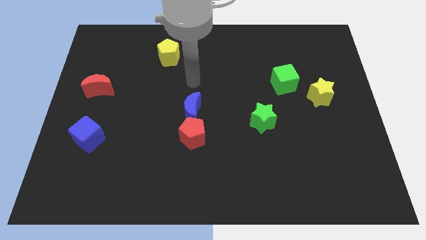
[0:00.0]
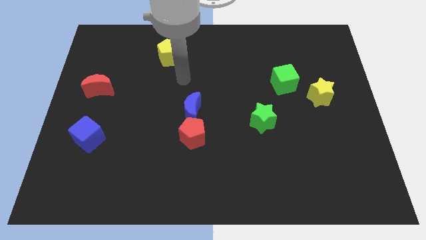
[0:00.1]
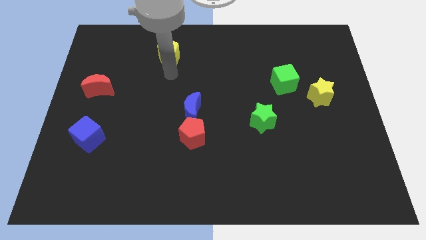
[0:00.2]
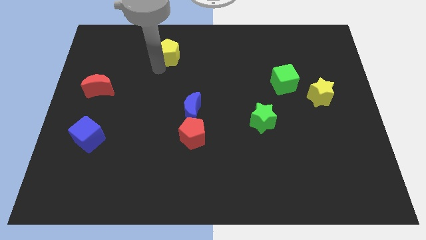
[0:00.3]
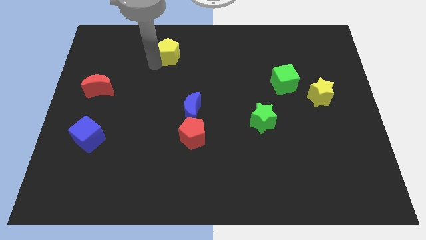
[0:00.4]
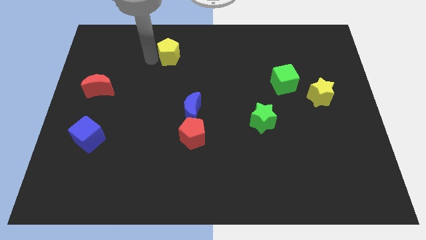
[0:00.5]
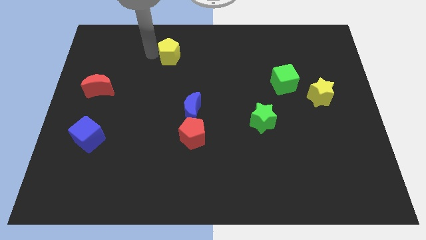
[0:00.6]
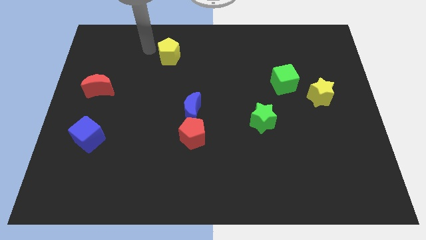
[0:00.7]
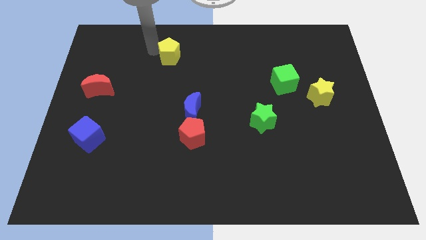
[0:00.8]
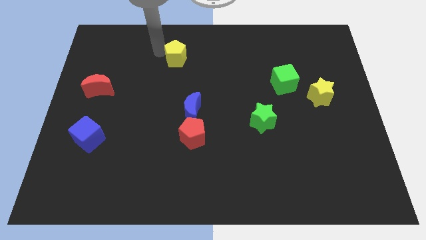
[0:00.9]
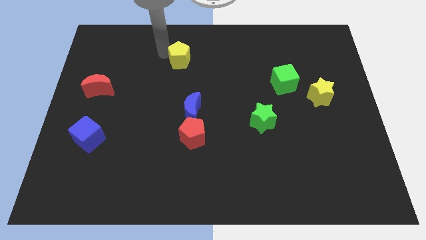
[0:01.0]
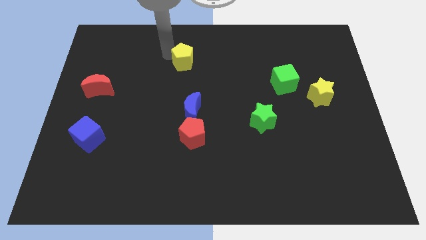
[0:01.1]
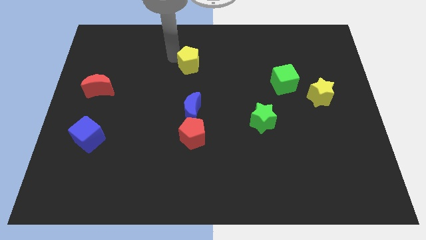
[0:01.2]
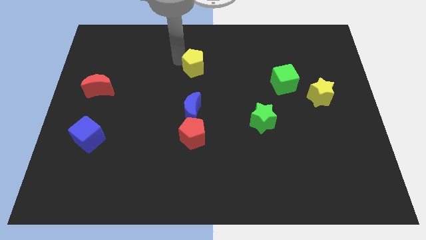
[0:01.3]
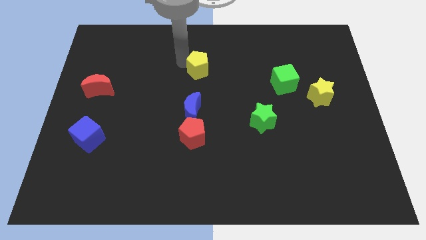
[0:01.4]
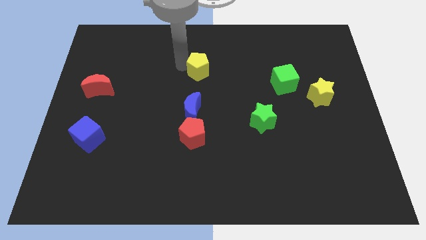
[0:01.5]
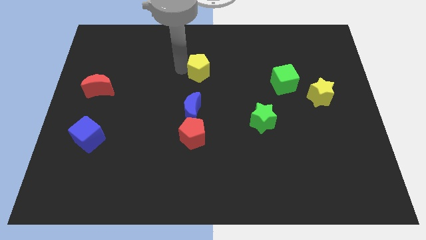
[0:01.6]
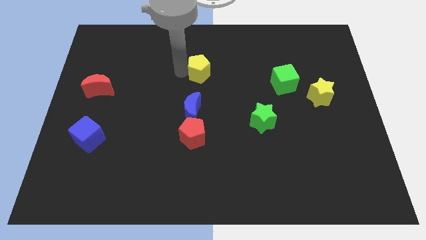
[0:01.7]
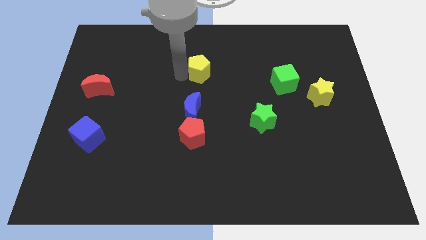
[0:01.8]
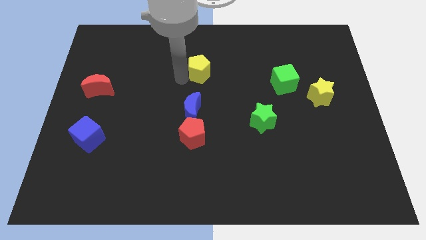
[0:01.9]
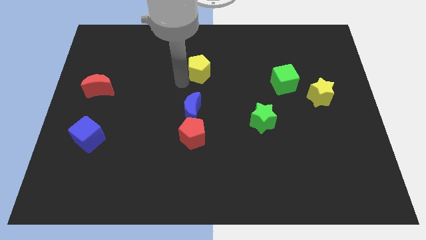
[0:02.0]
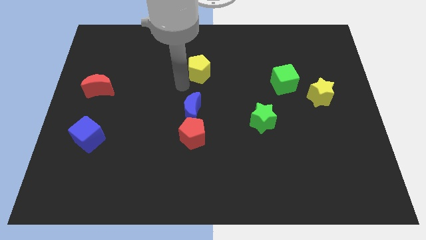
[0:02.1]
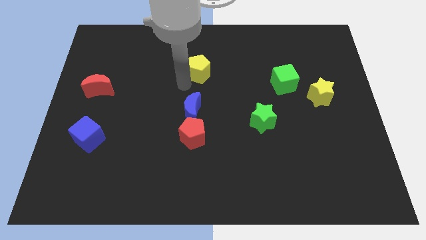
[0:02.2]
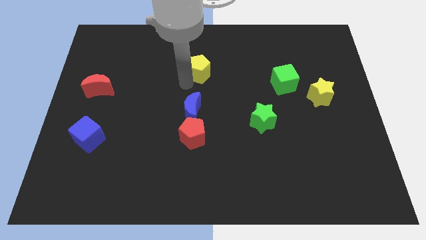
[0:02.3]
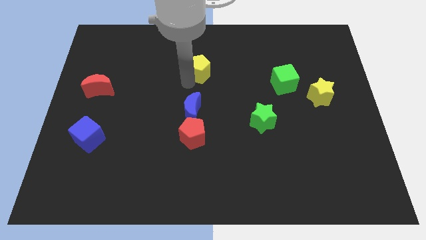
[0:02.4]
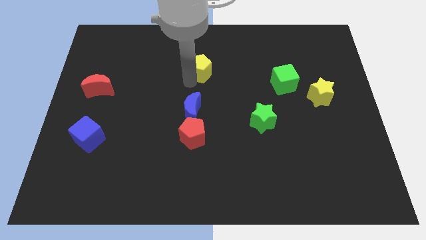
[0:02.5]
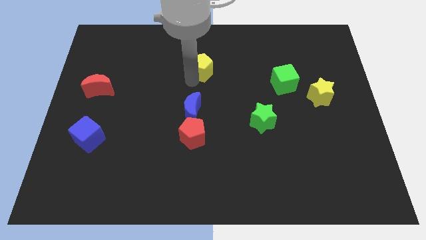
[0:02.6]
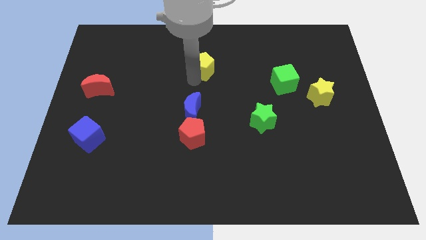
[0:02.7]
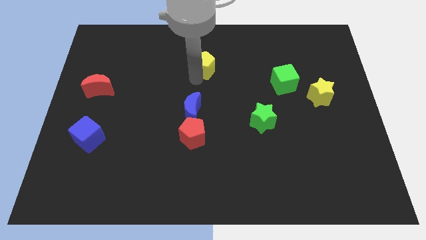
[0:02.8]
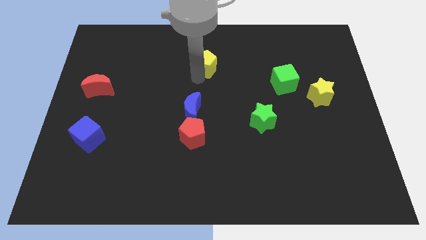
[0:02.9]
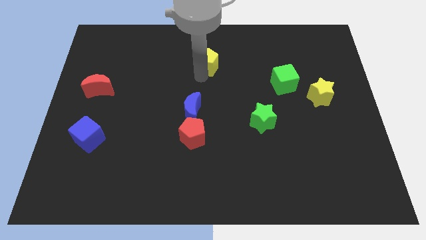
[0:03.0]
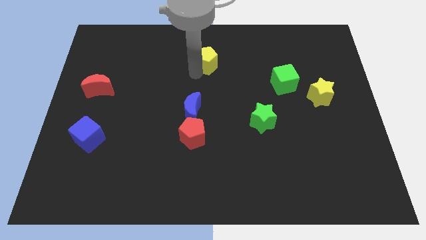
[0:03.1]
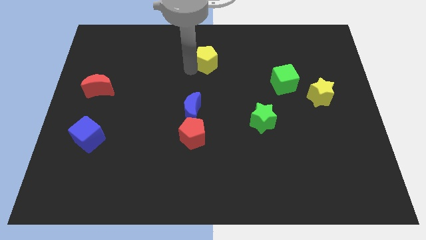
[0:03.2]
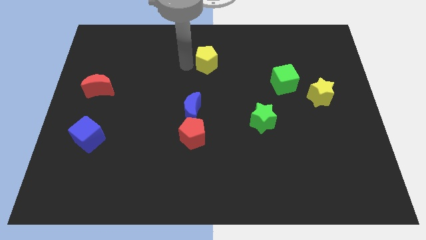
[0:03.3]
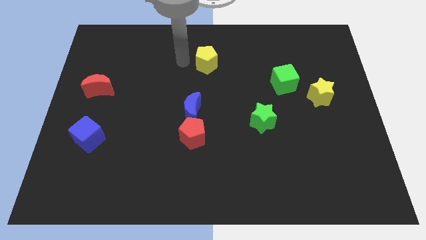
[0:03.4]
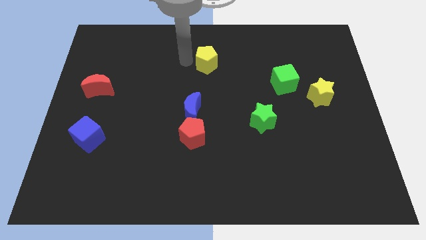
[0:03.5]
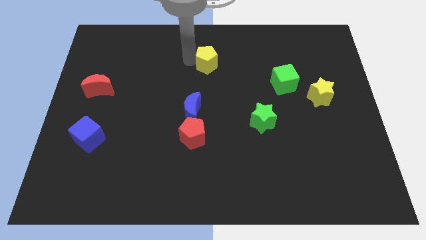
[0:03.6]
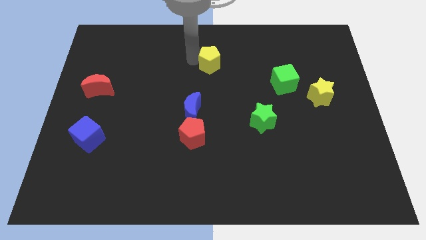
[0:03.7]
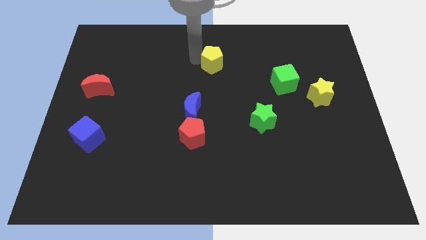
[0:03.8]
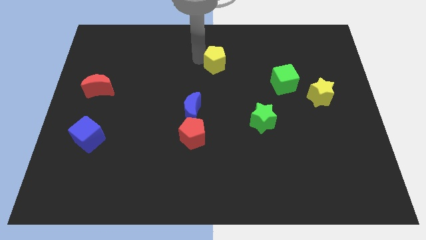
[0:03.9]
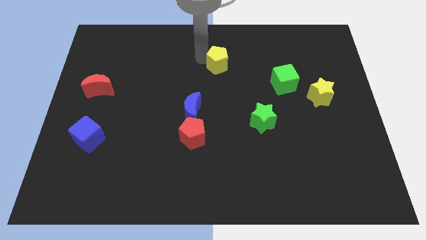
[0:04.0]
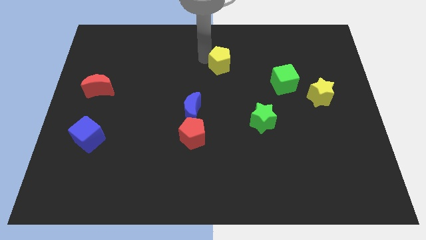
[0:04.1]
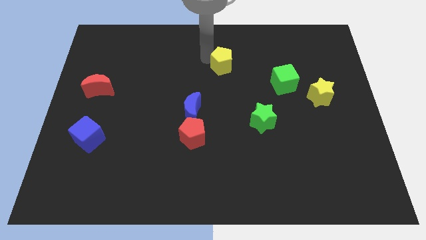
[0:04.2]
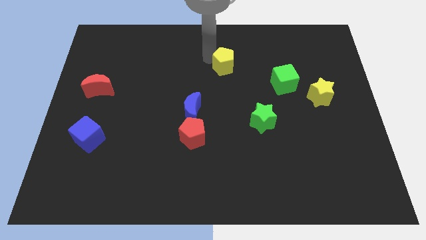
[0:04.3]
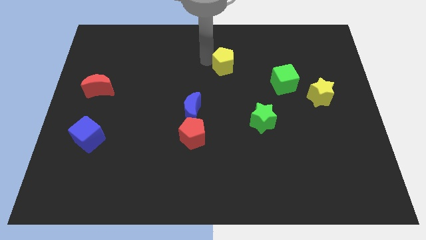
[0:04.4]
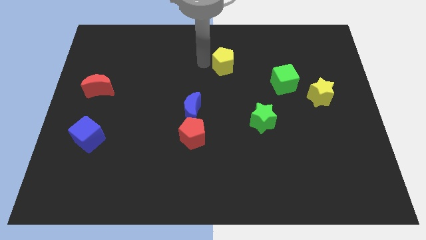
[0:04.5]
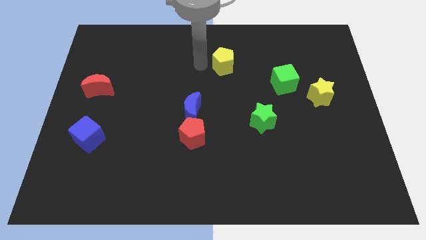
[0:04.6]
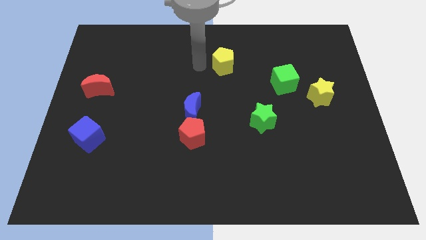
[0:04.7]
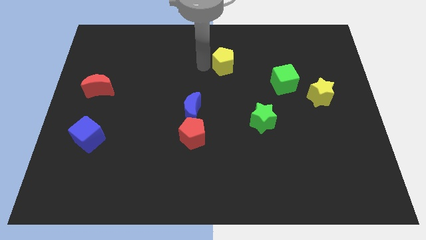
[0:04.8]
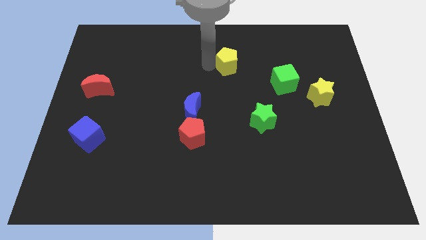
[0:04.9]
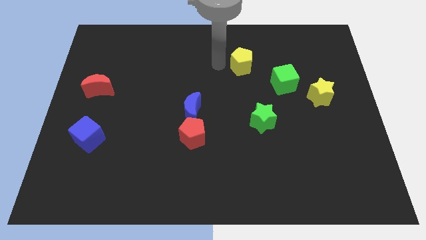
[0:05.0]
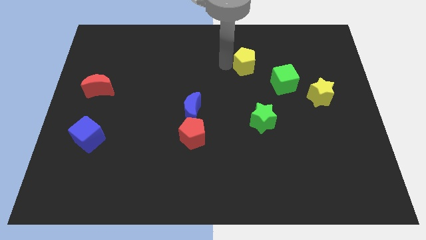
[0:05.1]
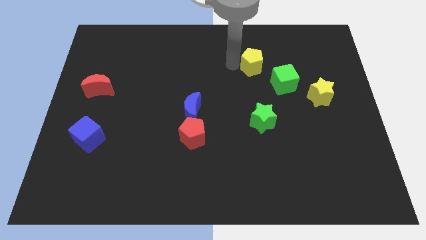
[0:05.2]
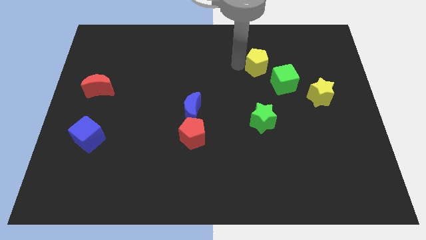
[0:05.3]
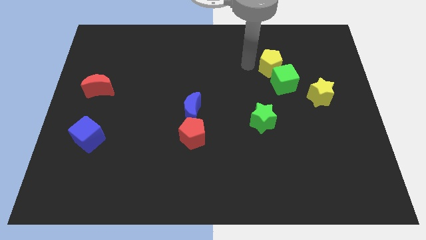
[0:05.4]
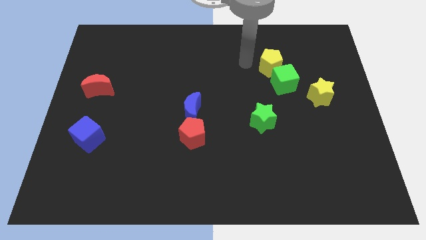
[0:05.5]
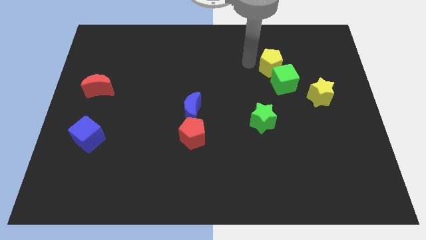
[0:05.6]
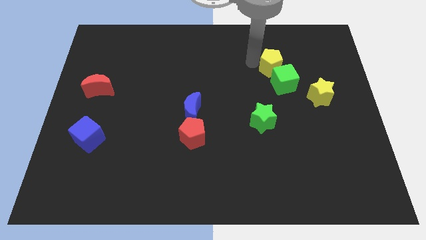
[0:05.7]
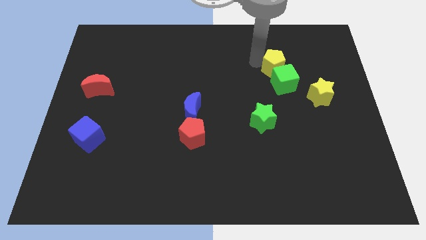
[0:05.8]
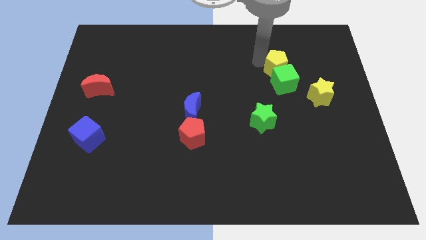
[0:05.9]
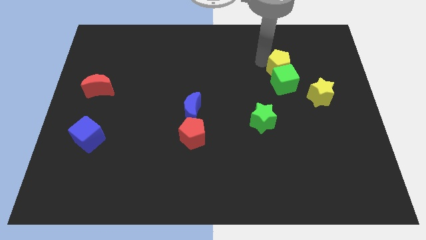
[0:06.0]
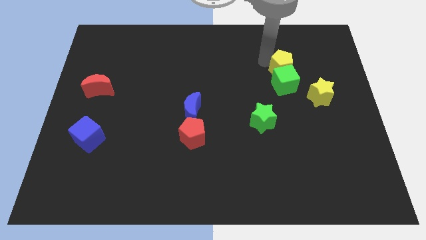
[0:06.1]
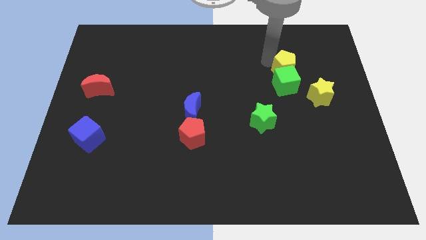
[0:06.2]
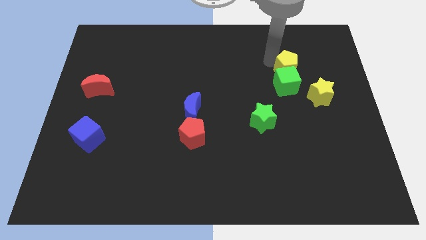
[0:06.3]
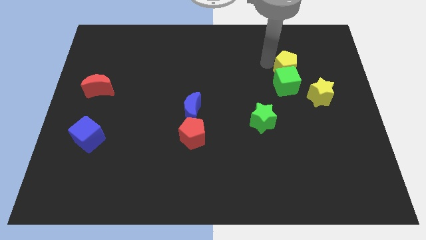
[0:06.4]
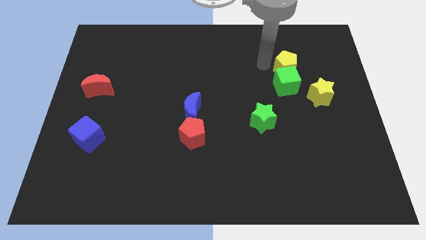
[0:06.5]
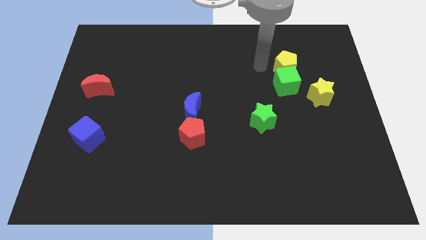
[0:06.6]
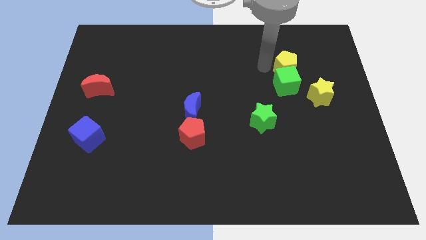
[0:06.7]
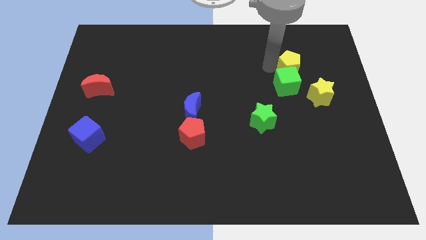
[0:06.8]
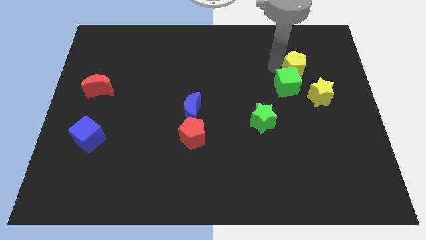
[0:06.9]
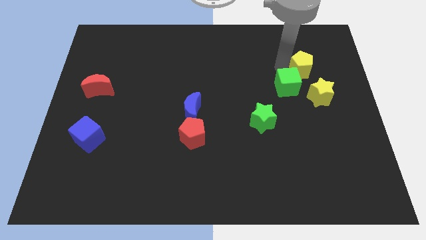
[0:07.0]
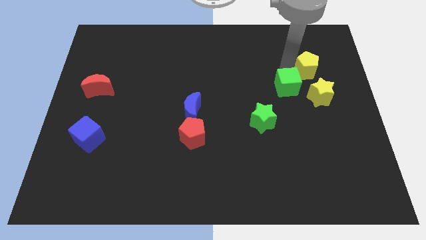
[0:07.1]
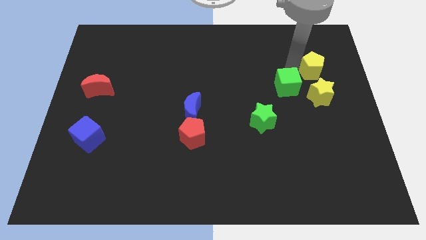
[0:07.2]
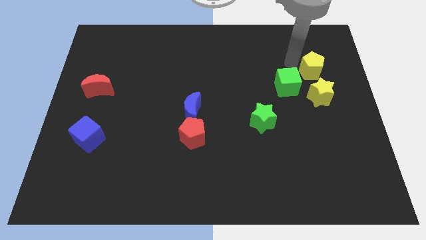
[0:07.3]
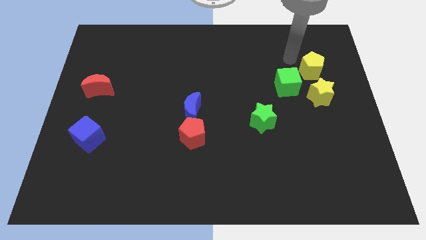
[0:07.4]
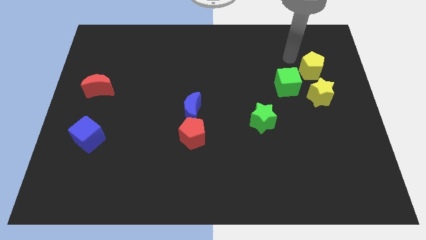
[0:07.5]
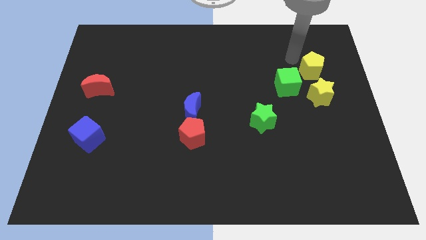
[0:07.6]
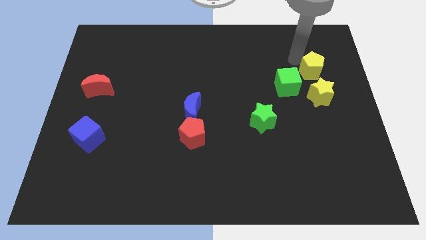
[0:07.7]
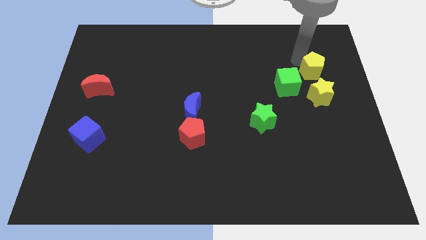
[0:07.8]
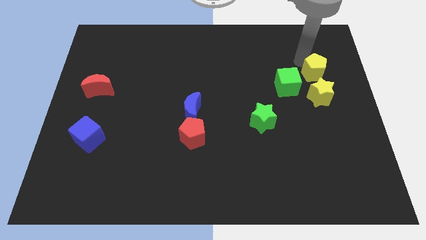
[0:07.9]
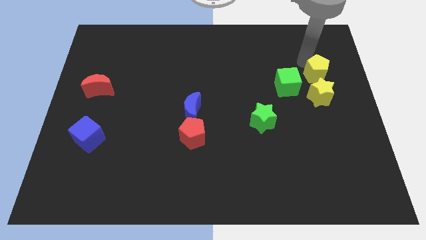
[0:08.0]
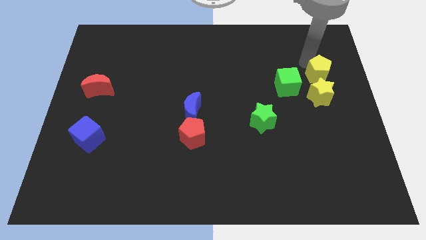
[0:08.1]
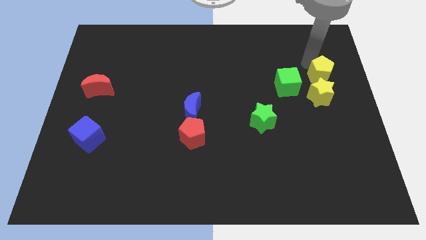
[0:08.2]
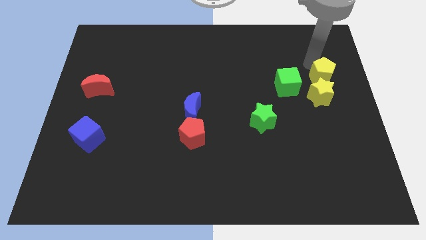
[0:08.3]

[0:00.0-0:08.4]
move the yellow pentagon to the right side
